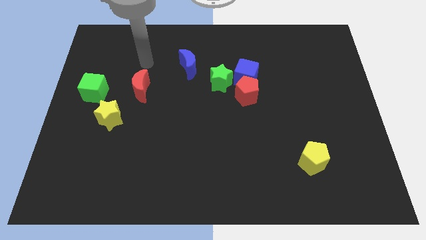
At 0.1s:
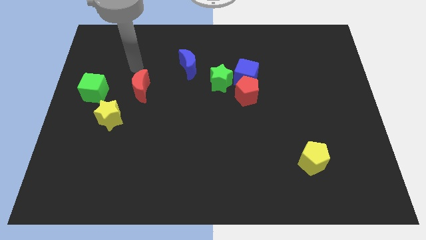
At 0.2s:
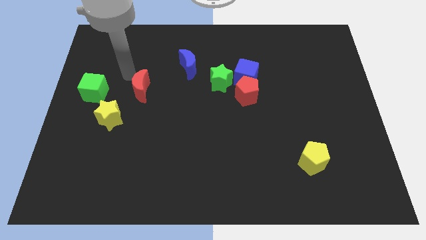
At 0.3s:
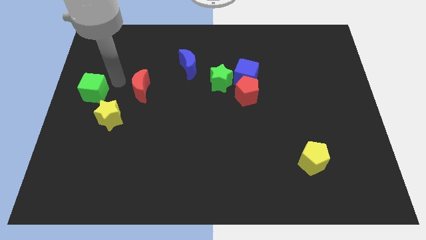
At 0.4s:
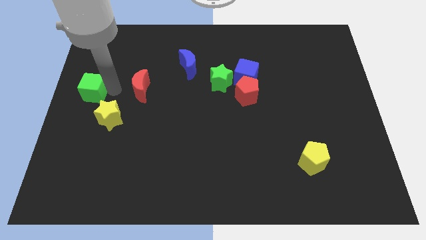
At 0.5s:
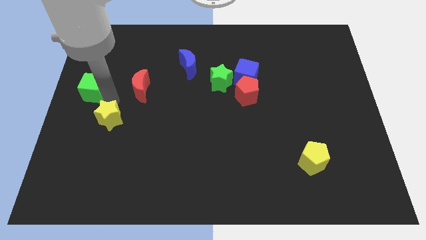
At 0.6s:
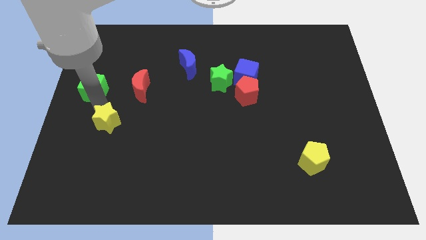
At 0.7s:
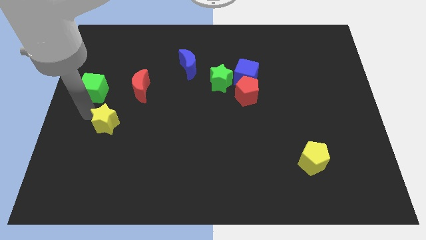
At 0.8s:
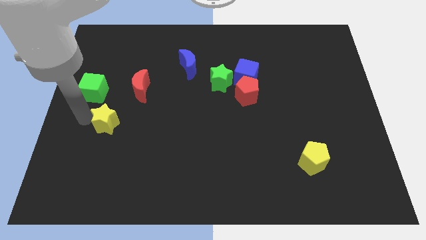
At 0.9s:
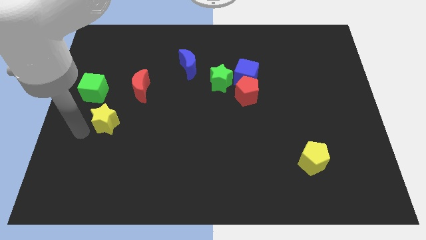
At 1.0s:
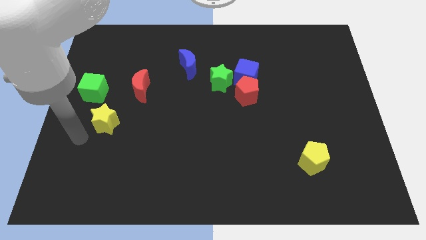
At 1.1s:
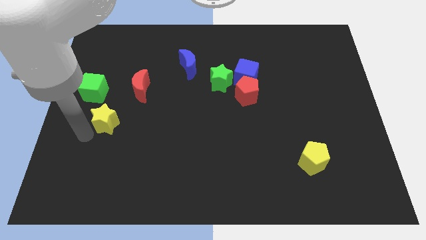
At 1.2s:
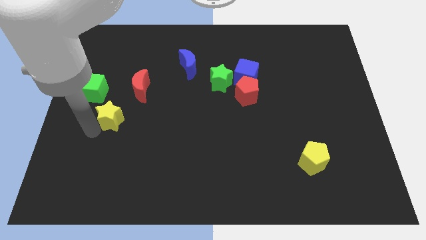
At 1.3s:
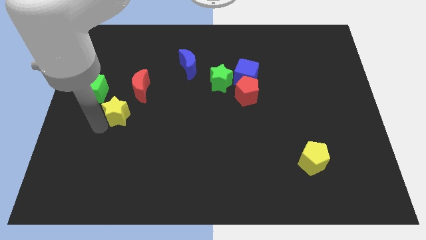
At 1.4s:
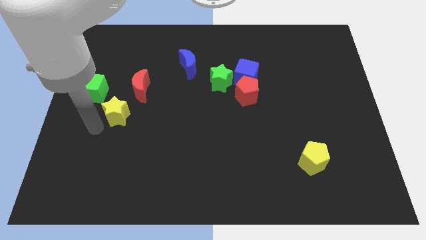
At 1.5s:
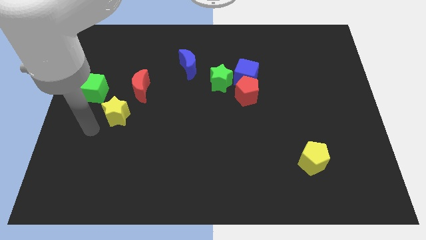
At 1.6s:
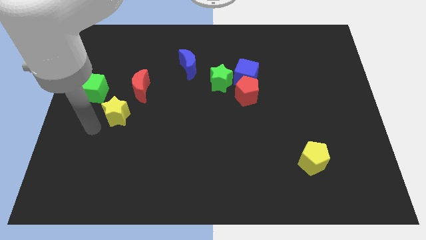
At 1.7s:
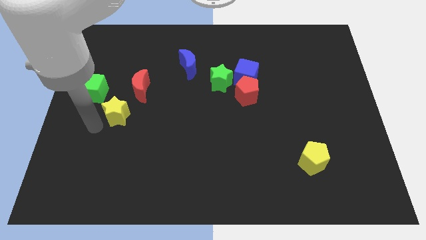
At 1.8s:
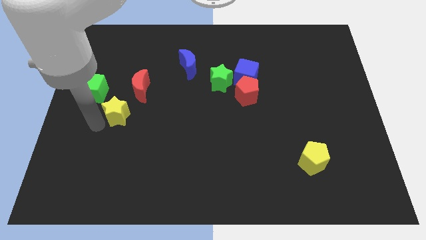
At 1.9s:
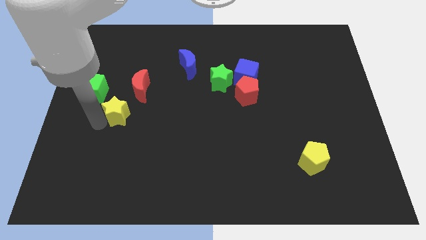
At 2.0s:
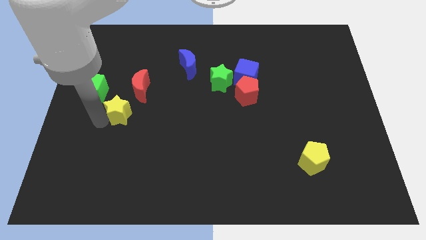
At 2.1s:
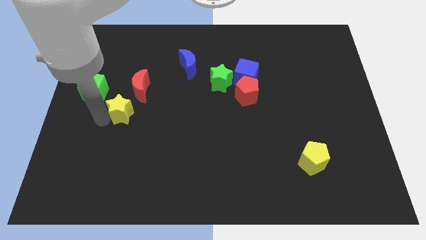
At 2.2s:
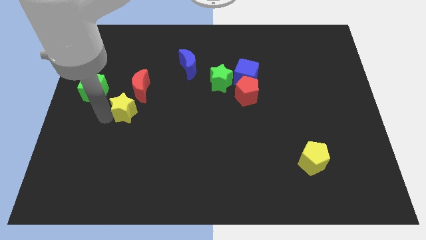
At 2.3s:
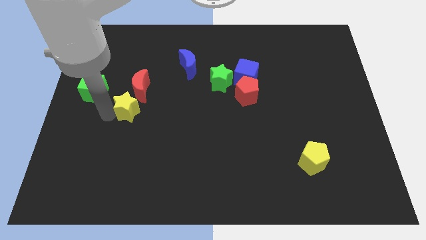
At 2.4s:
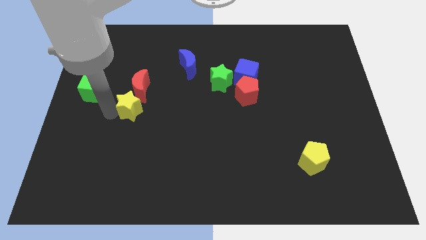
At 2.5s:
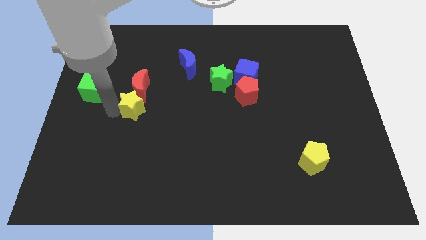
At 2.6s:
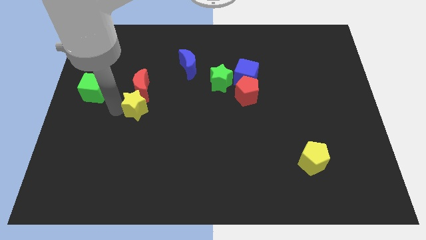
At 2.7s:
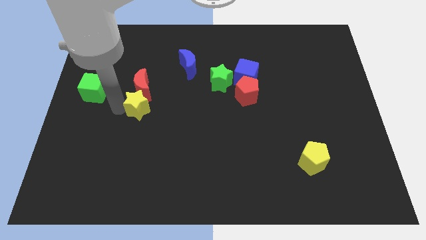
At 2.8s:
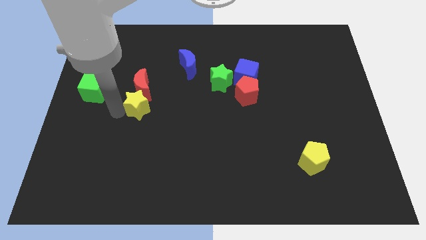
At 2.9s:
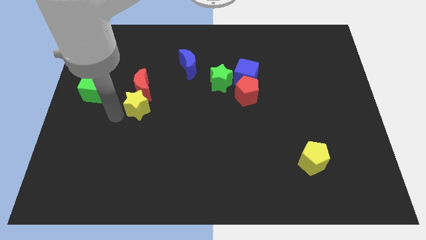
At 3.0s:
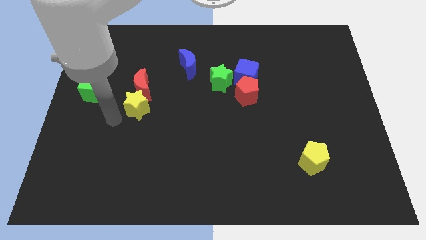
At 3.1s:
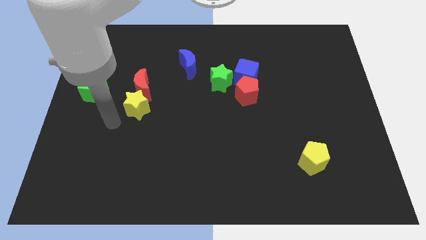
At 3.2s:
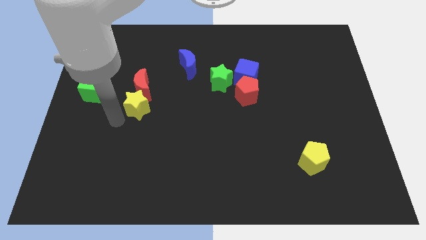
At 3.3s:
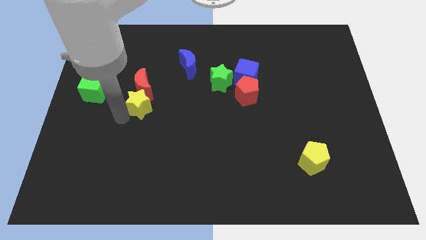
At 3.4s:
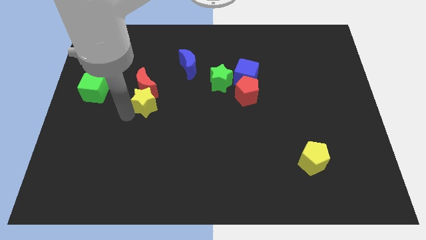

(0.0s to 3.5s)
push the yellow star a bit up and right diagonally

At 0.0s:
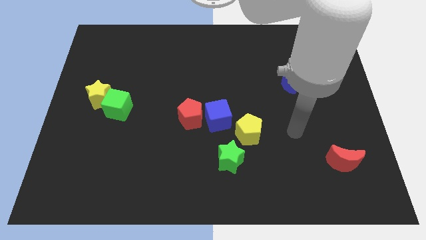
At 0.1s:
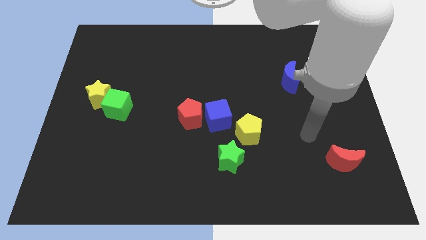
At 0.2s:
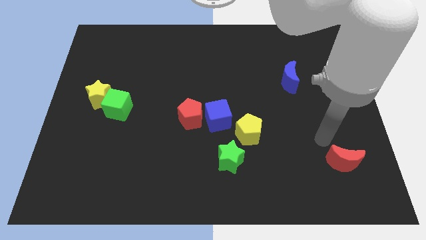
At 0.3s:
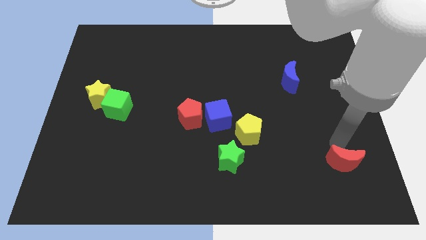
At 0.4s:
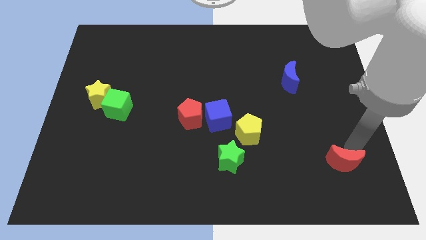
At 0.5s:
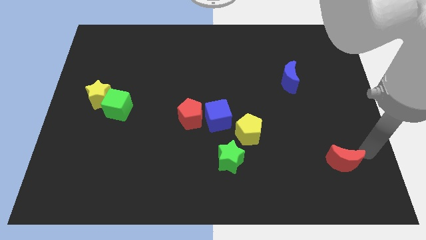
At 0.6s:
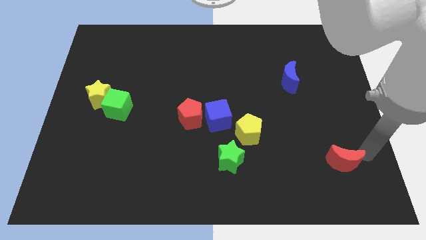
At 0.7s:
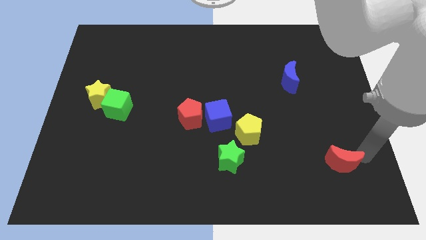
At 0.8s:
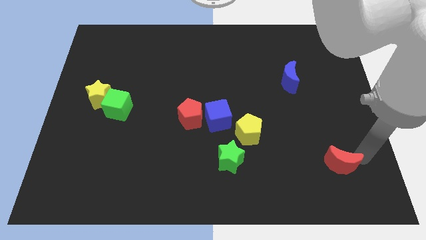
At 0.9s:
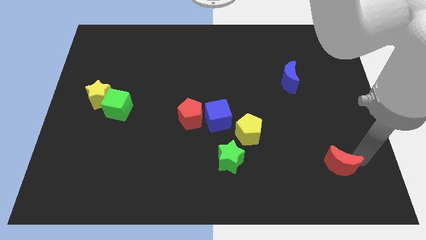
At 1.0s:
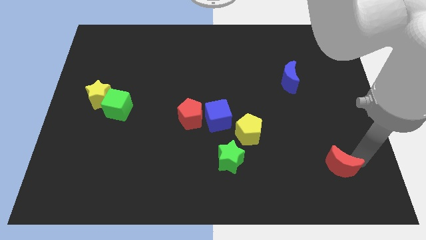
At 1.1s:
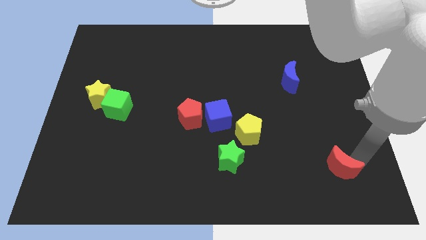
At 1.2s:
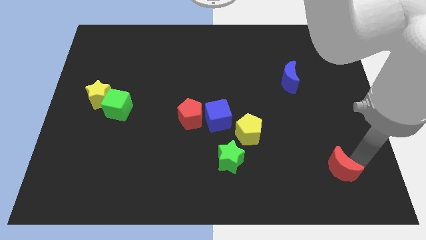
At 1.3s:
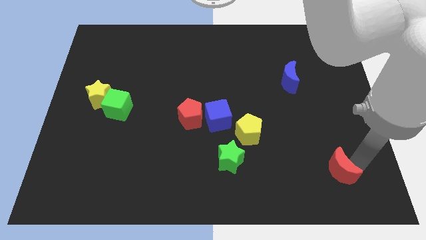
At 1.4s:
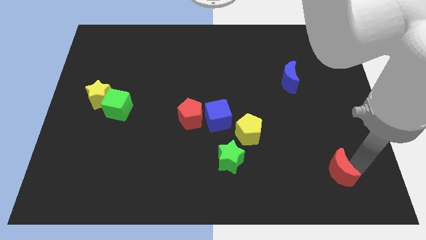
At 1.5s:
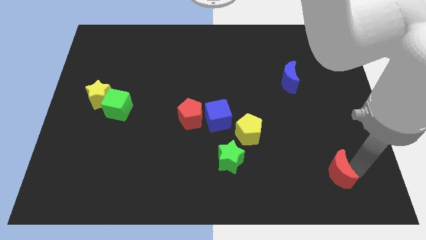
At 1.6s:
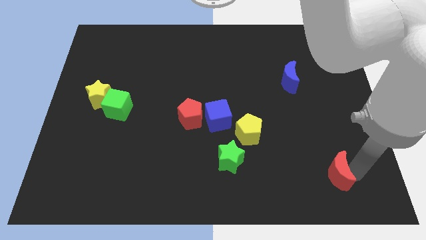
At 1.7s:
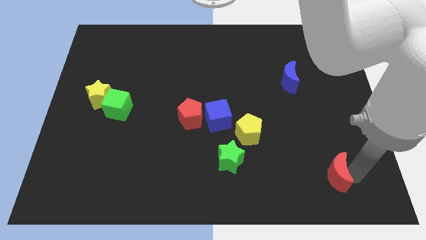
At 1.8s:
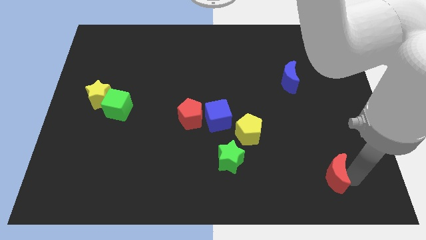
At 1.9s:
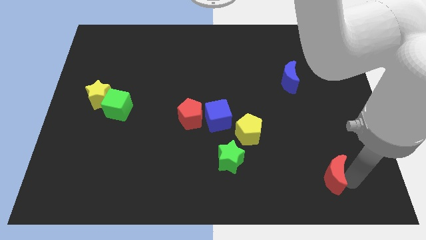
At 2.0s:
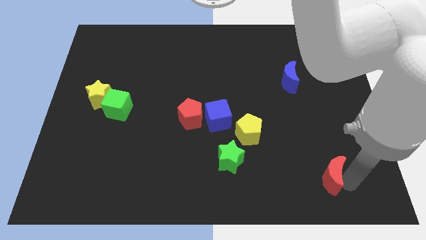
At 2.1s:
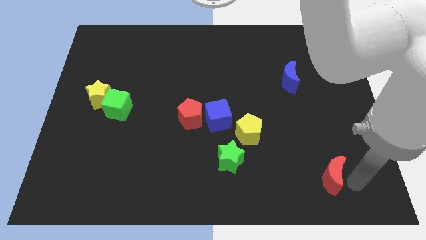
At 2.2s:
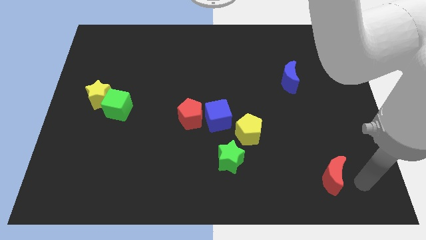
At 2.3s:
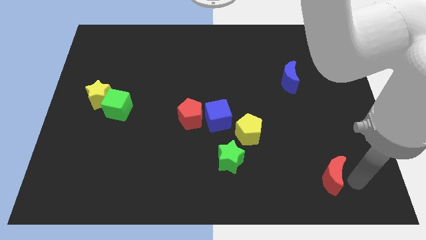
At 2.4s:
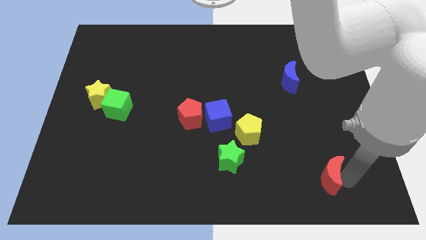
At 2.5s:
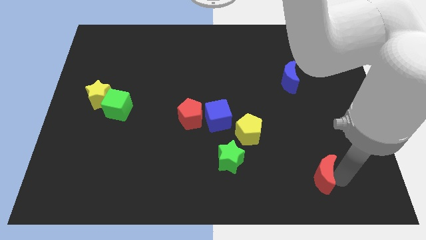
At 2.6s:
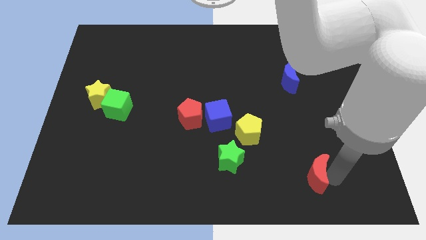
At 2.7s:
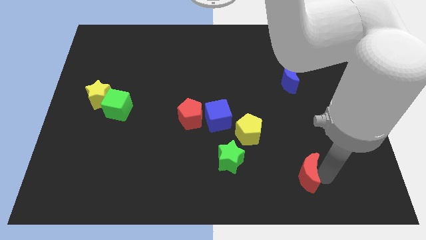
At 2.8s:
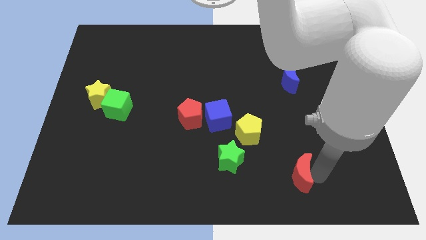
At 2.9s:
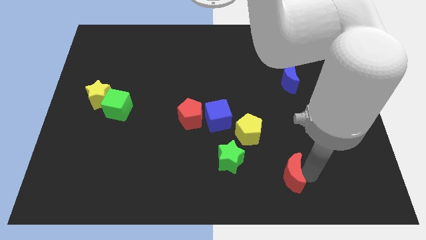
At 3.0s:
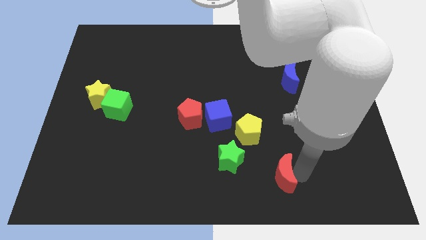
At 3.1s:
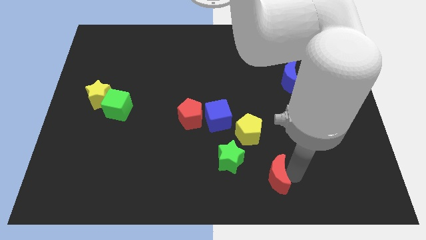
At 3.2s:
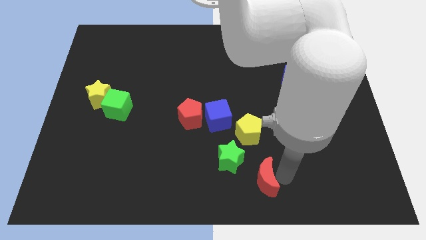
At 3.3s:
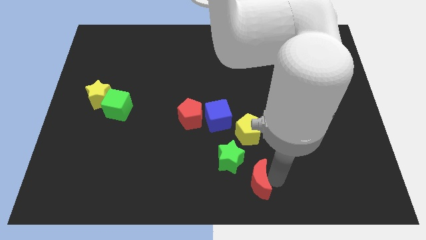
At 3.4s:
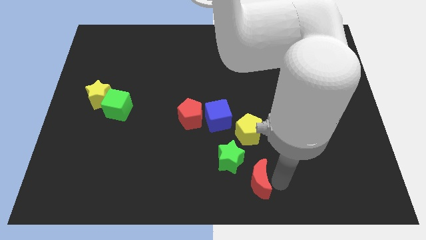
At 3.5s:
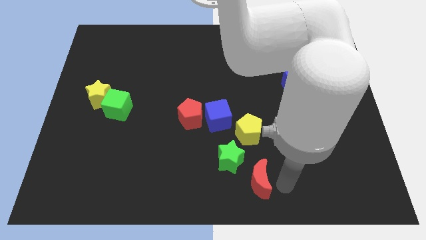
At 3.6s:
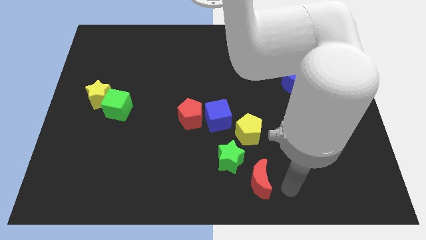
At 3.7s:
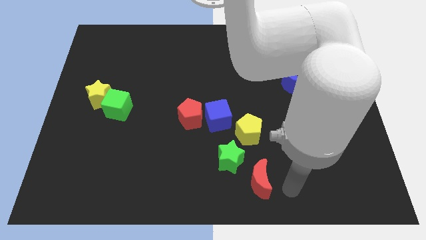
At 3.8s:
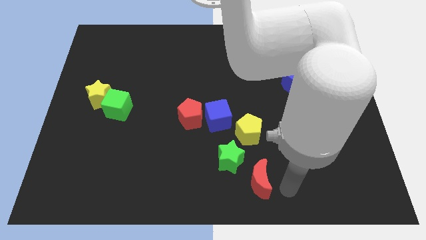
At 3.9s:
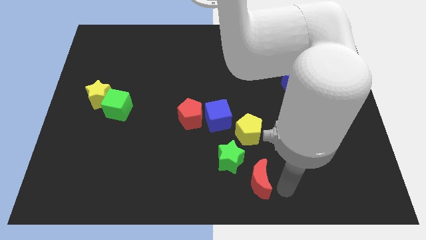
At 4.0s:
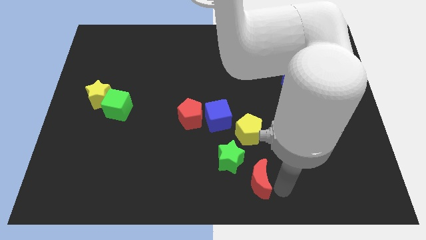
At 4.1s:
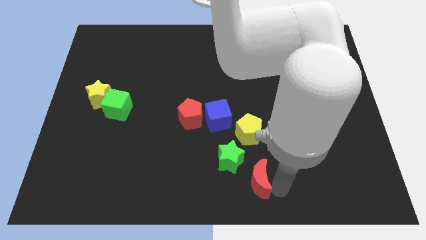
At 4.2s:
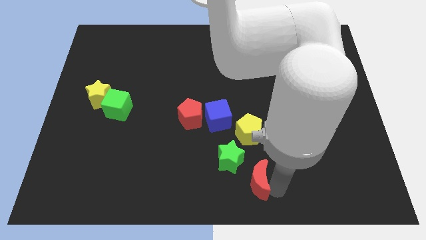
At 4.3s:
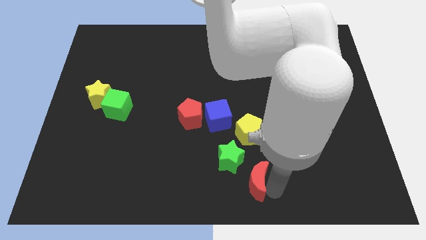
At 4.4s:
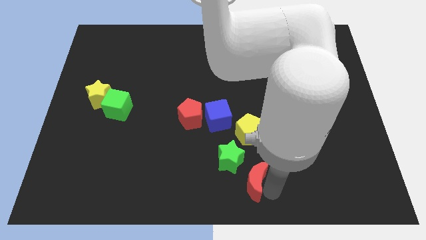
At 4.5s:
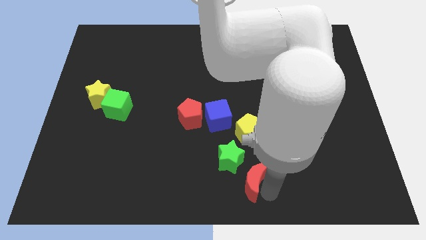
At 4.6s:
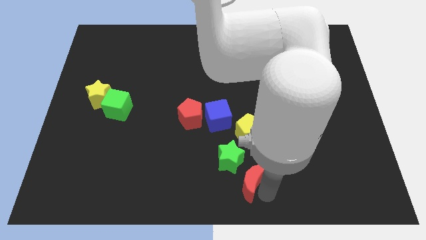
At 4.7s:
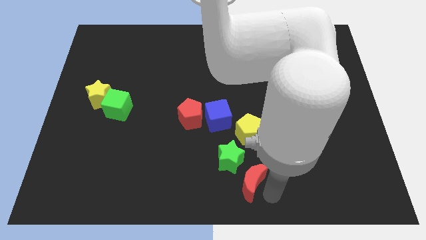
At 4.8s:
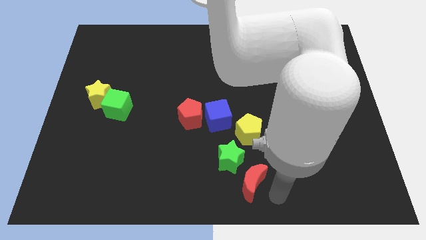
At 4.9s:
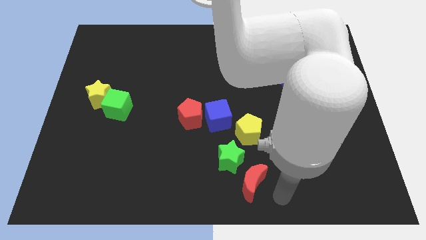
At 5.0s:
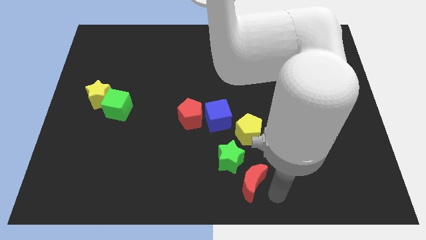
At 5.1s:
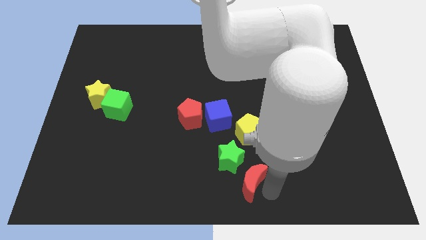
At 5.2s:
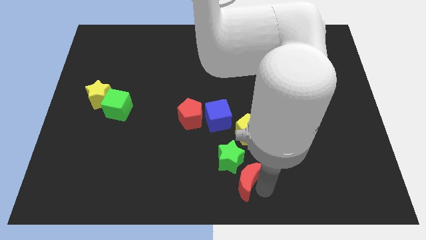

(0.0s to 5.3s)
push the red moon to the left
